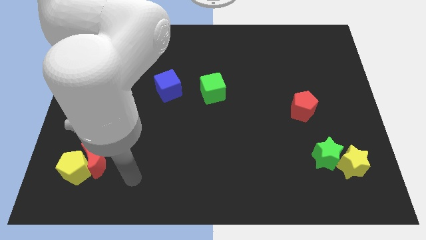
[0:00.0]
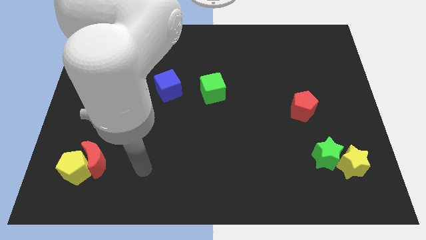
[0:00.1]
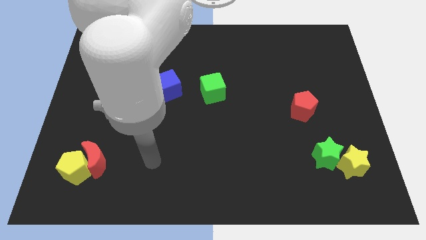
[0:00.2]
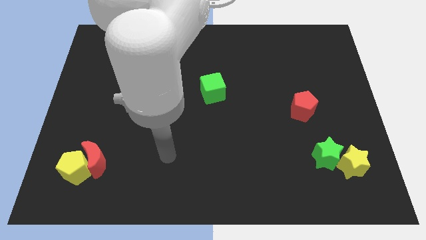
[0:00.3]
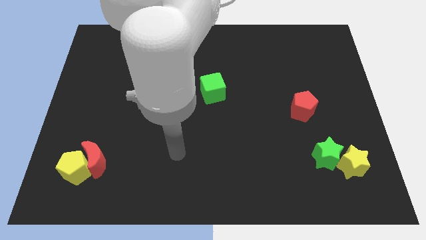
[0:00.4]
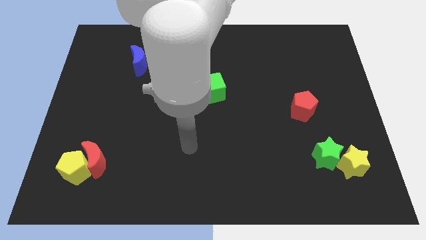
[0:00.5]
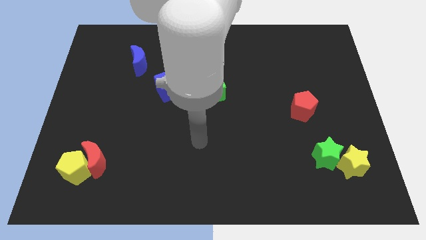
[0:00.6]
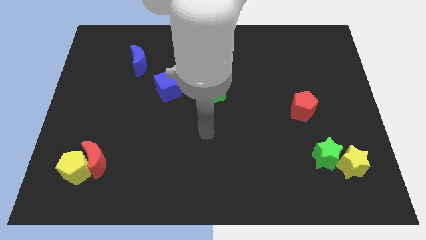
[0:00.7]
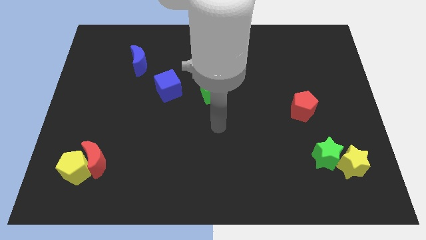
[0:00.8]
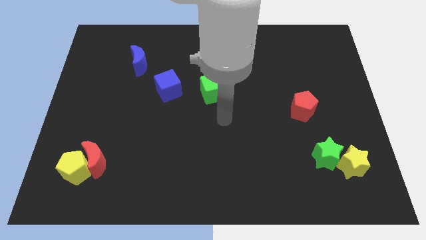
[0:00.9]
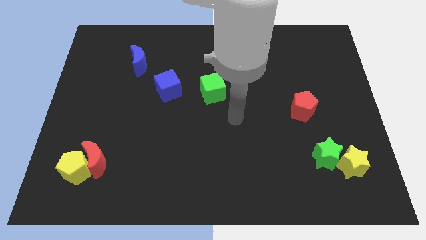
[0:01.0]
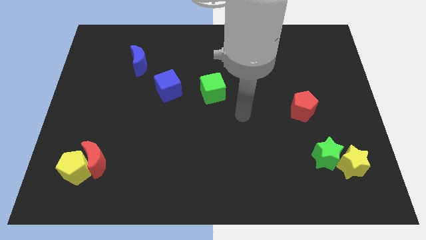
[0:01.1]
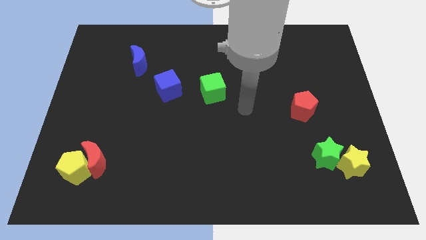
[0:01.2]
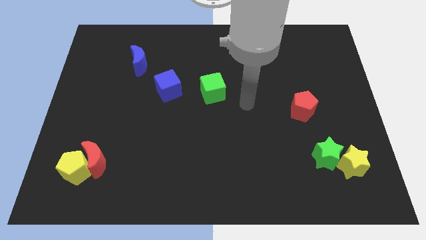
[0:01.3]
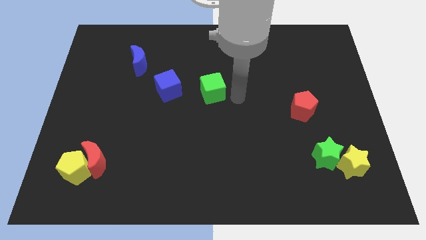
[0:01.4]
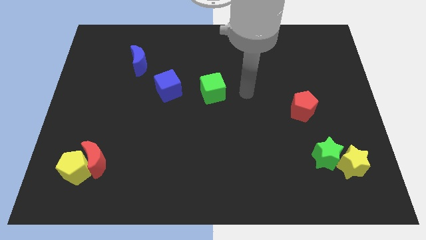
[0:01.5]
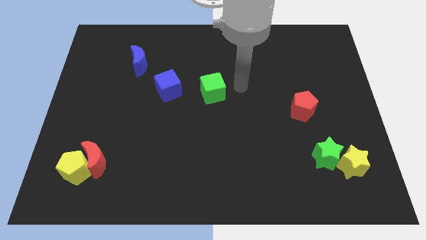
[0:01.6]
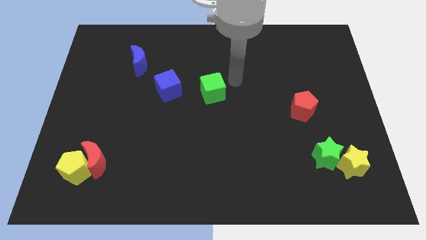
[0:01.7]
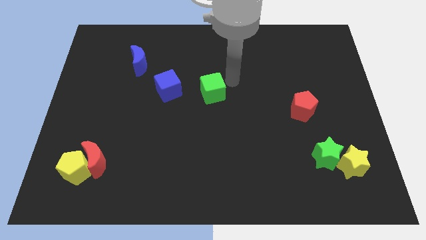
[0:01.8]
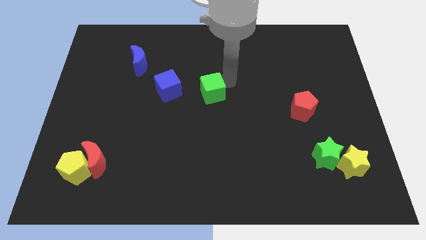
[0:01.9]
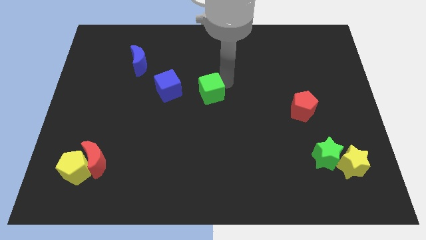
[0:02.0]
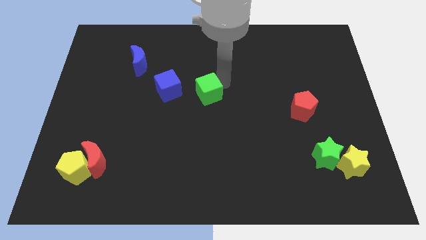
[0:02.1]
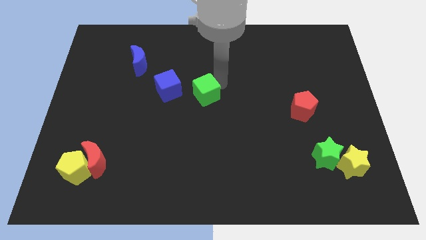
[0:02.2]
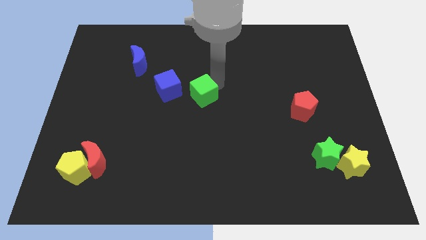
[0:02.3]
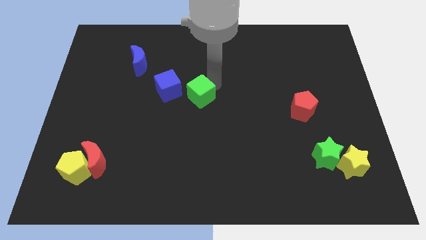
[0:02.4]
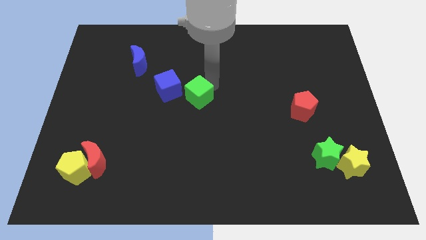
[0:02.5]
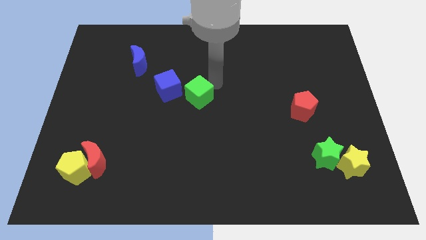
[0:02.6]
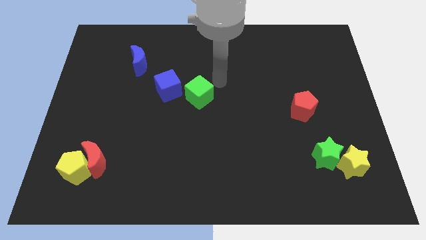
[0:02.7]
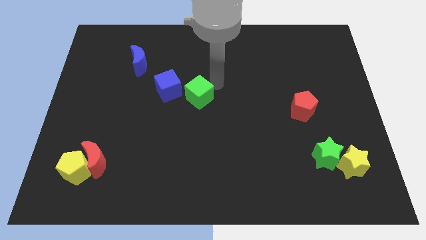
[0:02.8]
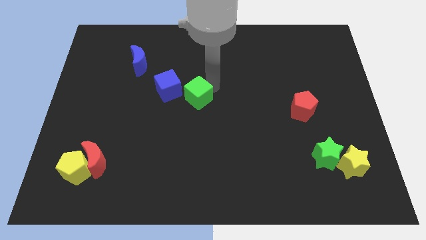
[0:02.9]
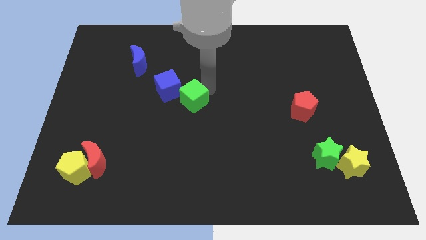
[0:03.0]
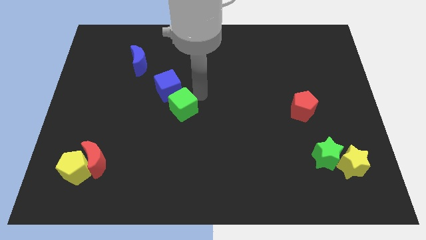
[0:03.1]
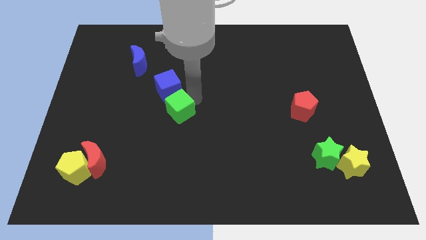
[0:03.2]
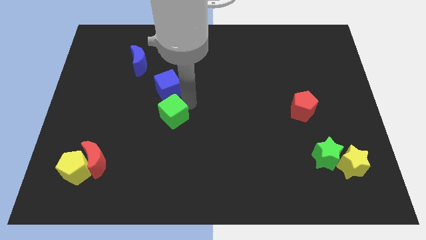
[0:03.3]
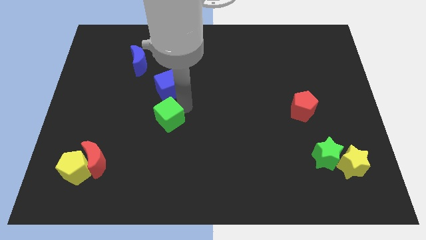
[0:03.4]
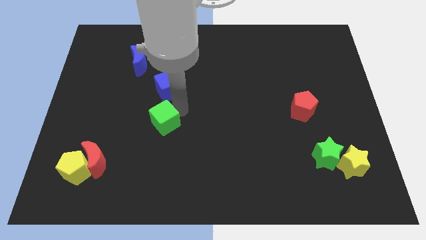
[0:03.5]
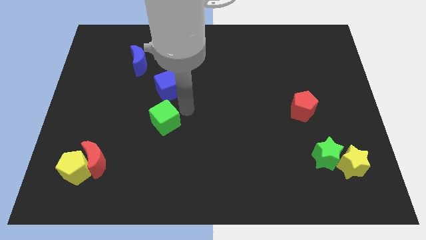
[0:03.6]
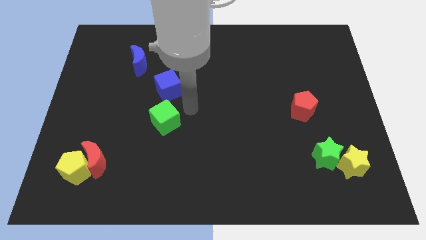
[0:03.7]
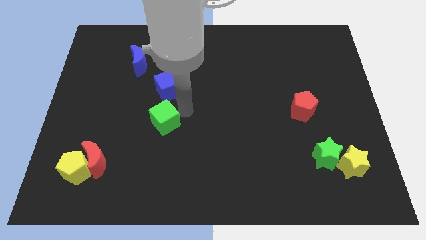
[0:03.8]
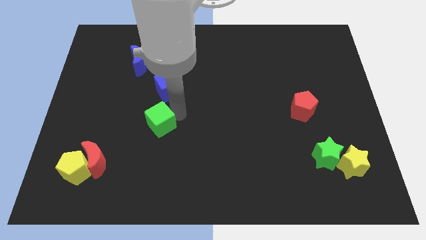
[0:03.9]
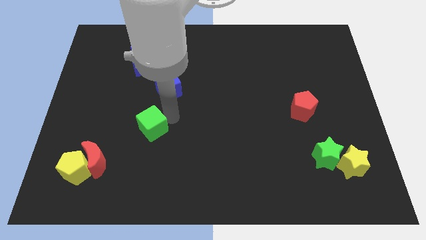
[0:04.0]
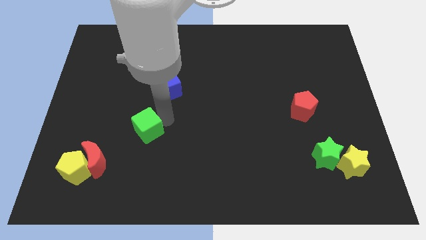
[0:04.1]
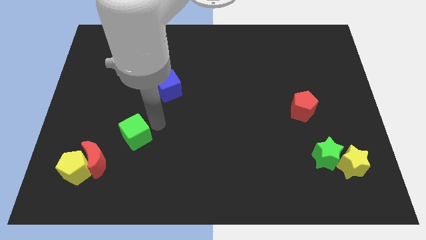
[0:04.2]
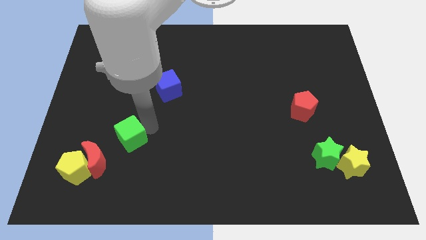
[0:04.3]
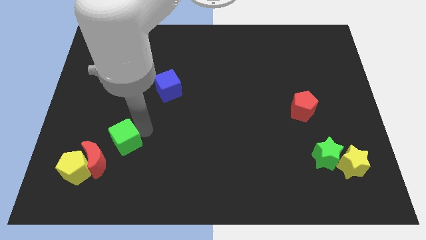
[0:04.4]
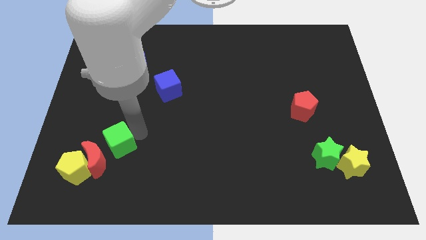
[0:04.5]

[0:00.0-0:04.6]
slide the green cube close to the red moon

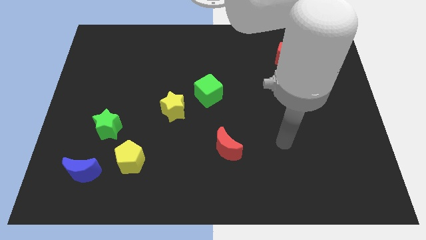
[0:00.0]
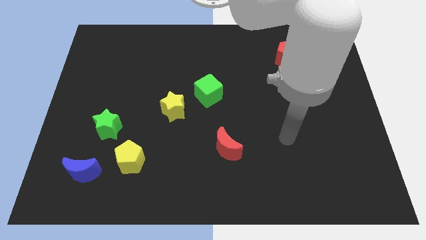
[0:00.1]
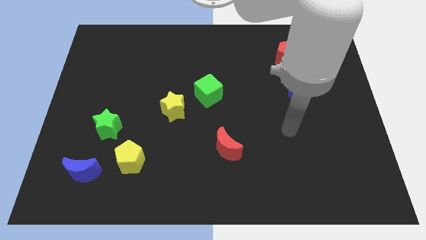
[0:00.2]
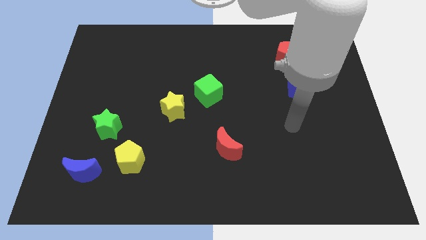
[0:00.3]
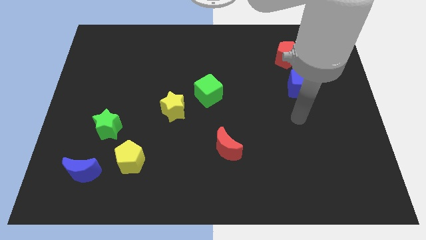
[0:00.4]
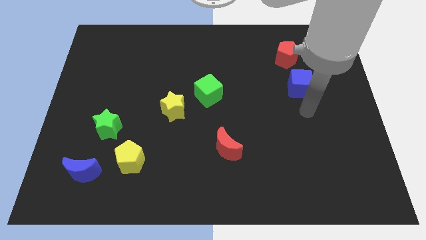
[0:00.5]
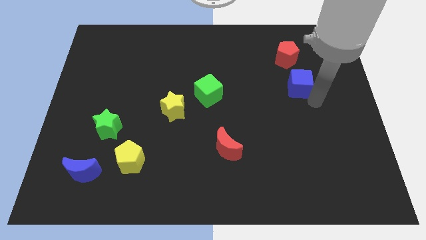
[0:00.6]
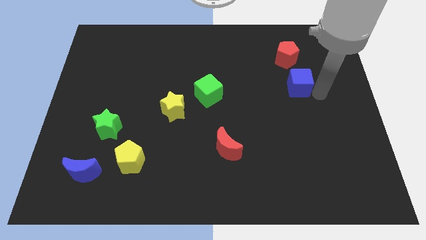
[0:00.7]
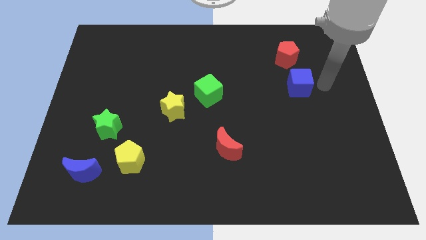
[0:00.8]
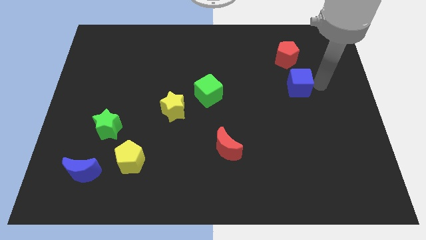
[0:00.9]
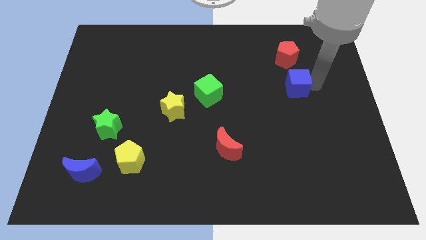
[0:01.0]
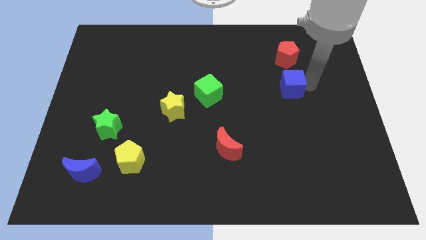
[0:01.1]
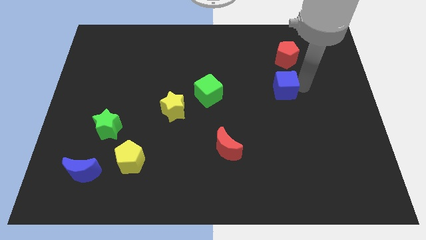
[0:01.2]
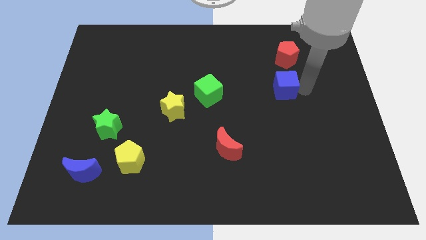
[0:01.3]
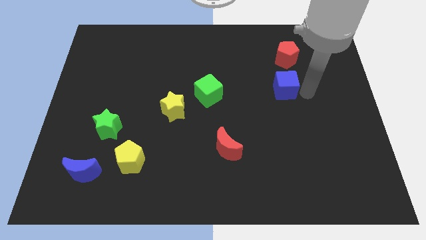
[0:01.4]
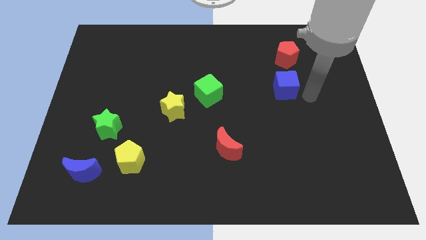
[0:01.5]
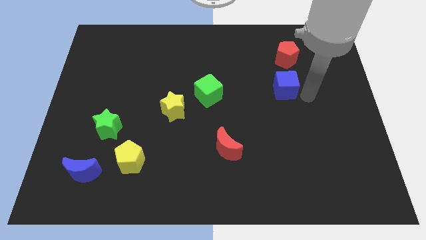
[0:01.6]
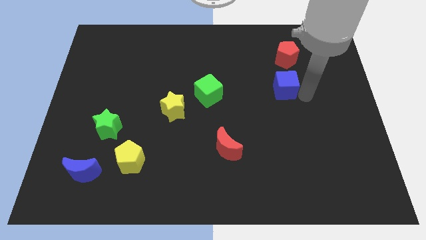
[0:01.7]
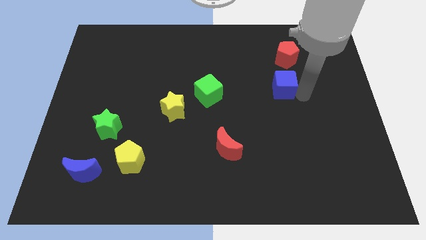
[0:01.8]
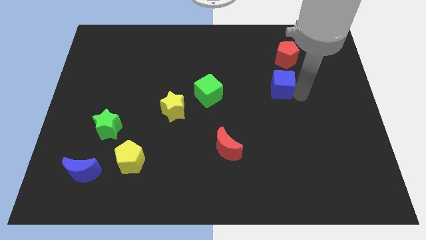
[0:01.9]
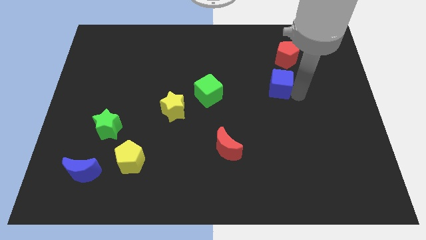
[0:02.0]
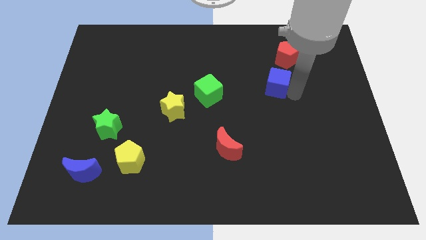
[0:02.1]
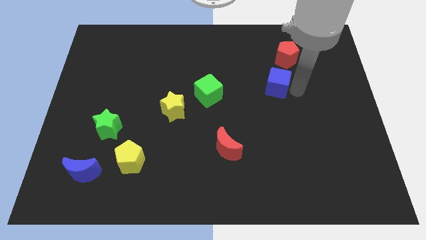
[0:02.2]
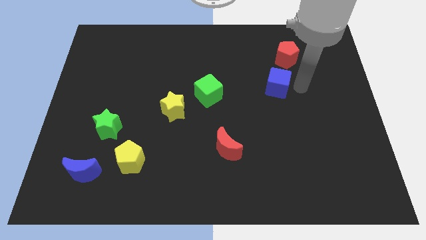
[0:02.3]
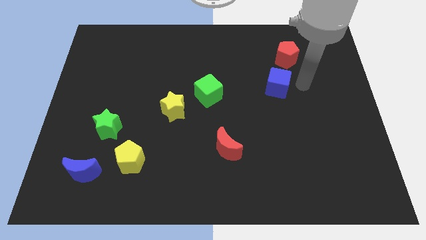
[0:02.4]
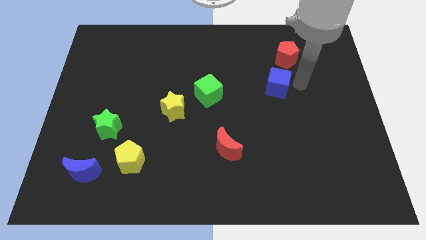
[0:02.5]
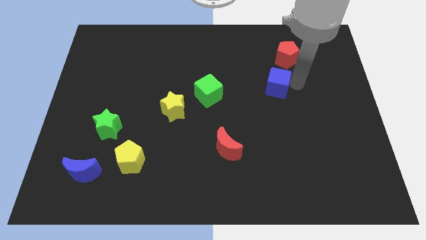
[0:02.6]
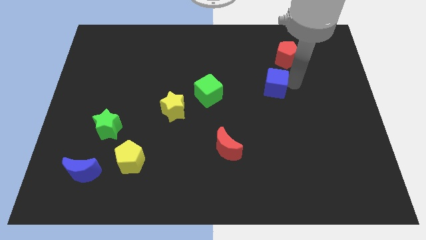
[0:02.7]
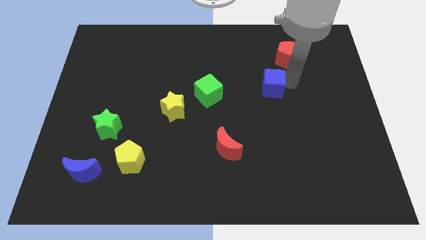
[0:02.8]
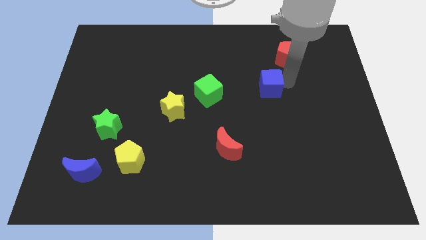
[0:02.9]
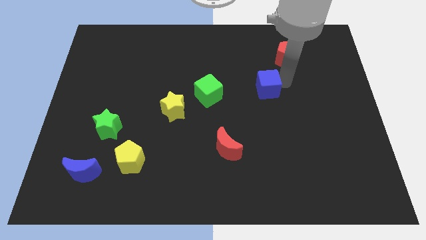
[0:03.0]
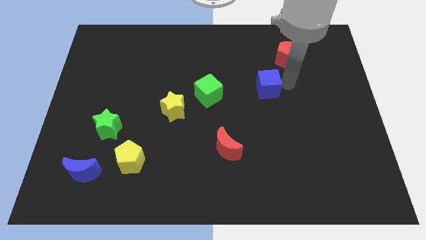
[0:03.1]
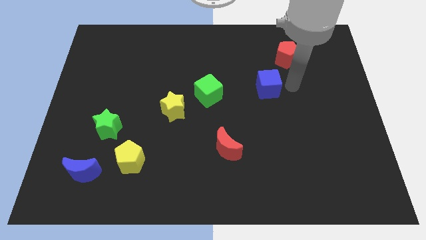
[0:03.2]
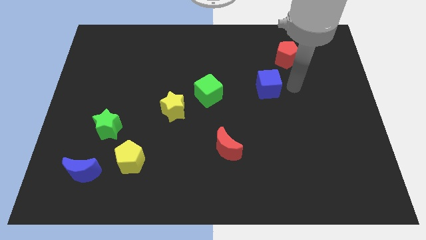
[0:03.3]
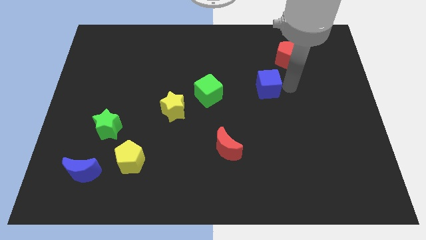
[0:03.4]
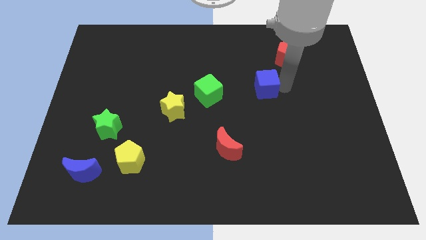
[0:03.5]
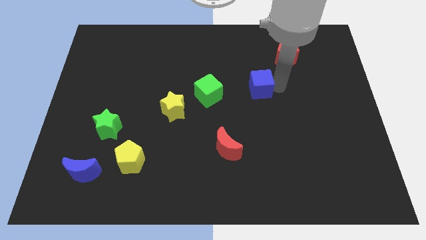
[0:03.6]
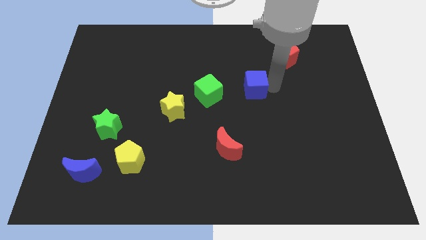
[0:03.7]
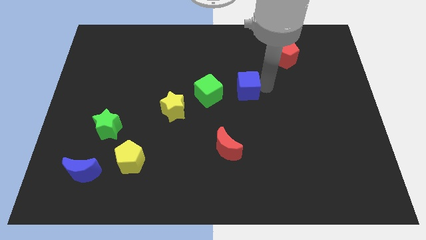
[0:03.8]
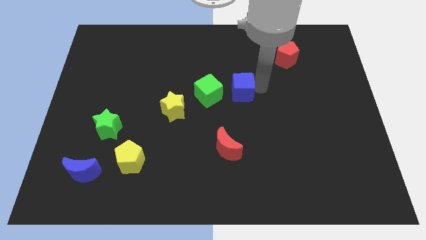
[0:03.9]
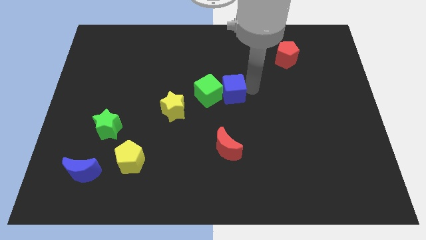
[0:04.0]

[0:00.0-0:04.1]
slide the blue cube to the green cube
